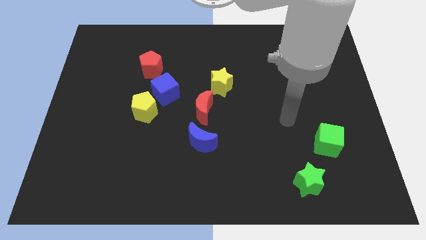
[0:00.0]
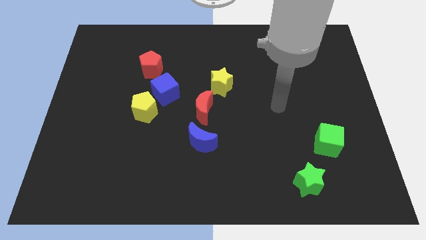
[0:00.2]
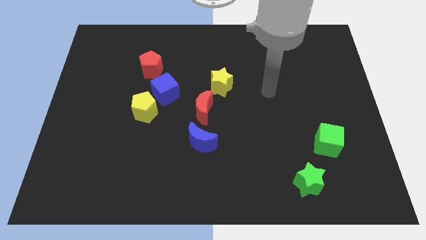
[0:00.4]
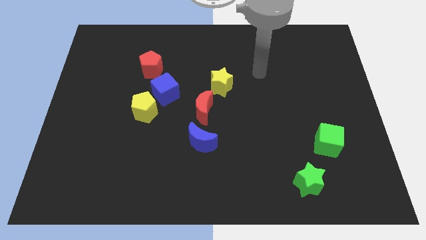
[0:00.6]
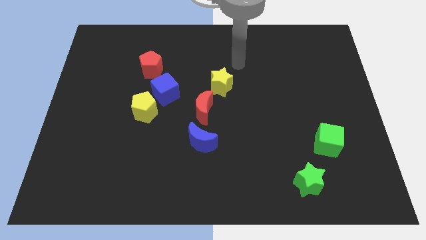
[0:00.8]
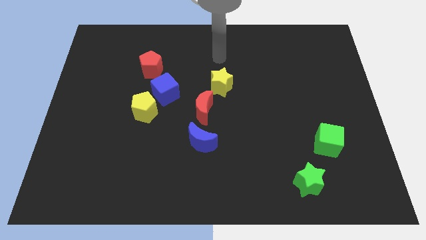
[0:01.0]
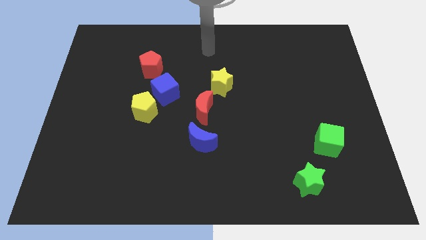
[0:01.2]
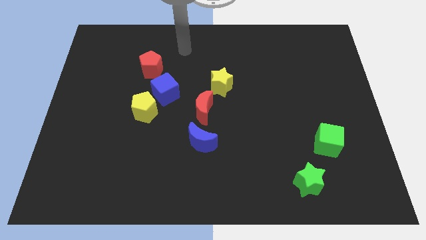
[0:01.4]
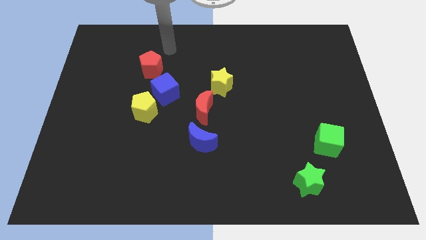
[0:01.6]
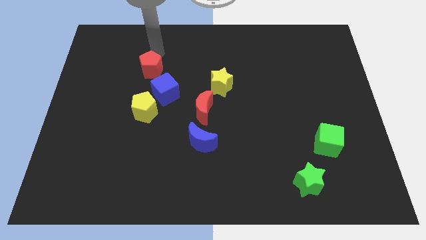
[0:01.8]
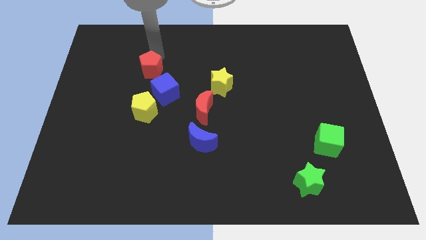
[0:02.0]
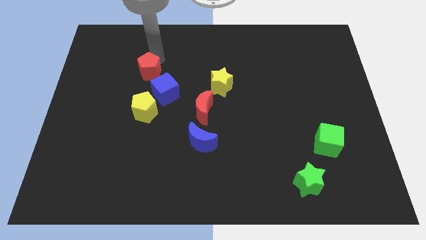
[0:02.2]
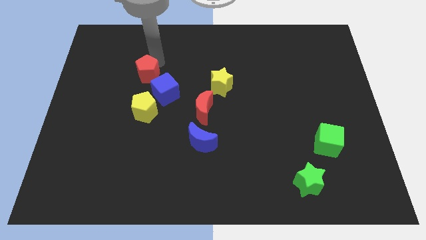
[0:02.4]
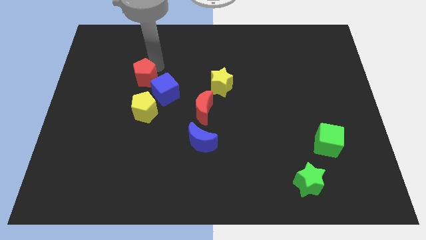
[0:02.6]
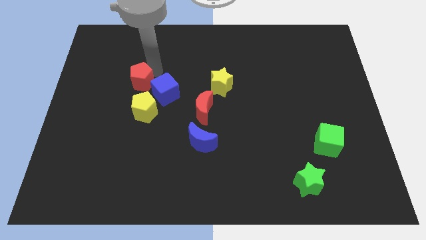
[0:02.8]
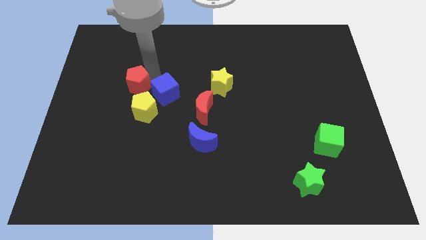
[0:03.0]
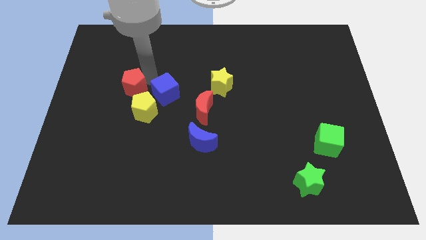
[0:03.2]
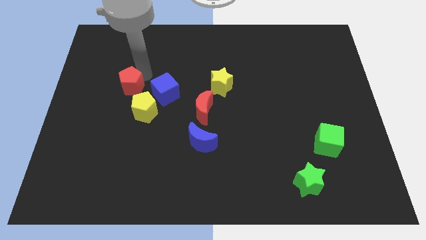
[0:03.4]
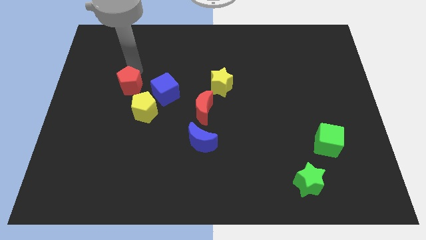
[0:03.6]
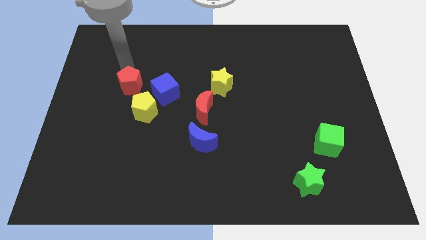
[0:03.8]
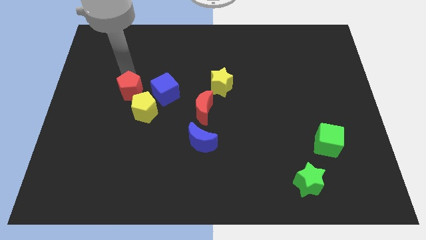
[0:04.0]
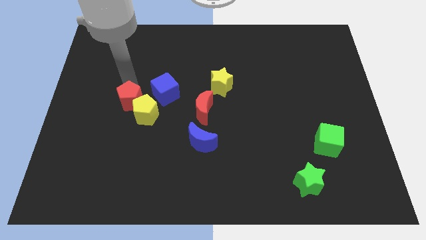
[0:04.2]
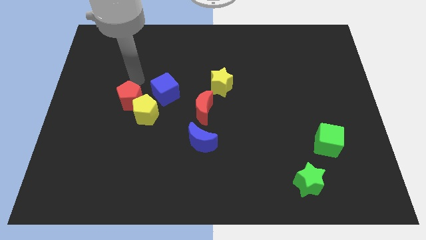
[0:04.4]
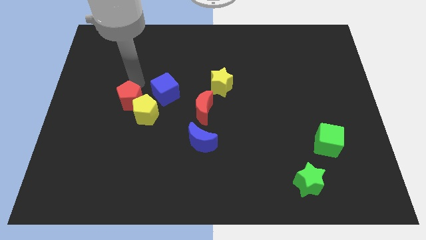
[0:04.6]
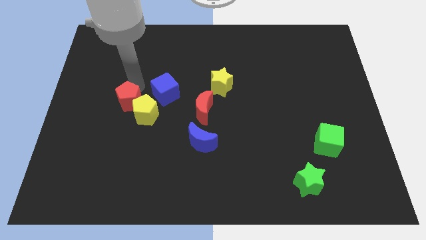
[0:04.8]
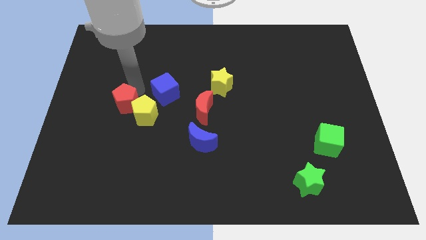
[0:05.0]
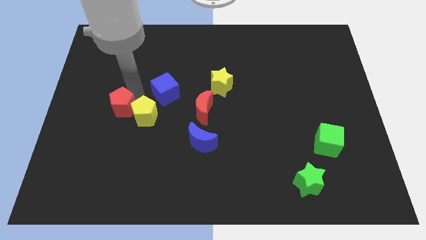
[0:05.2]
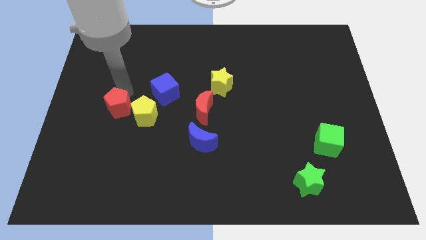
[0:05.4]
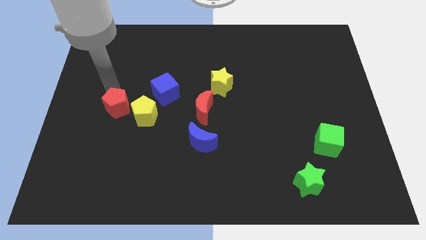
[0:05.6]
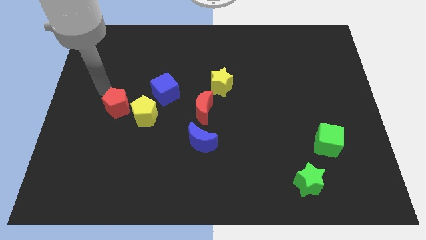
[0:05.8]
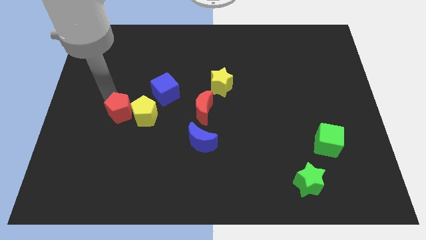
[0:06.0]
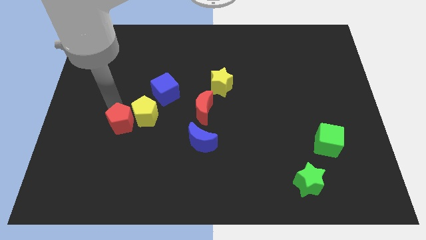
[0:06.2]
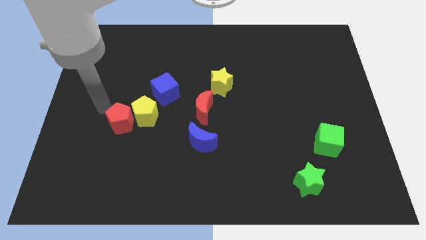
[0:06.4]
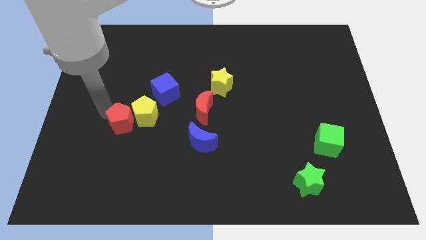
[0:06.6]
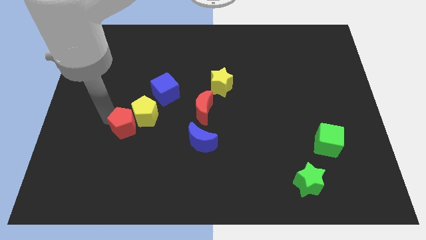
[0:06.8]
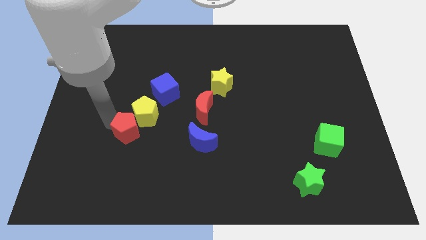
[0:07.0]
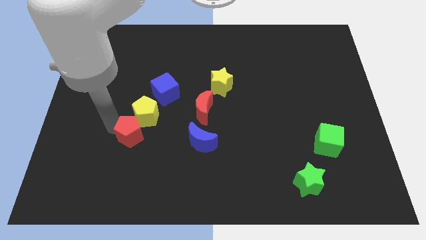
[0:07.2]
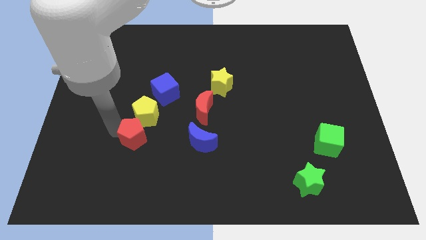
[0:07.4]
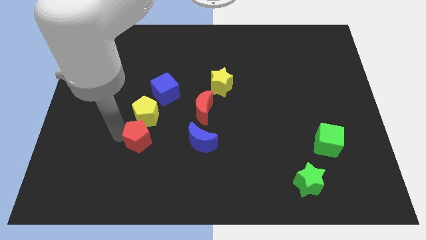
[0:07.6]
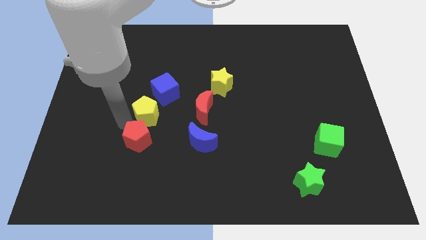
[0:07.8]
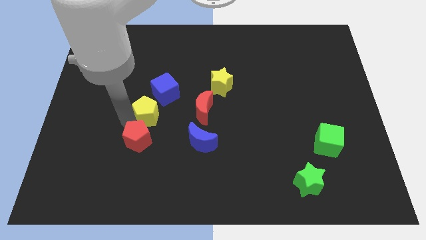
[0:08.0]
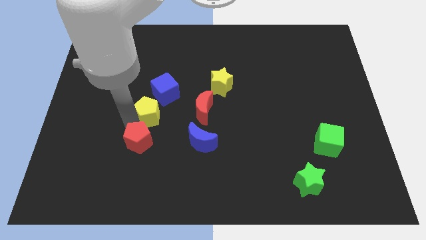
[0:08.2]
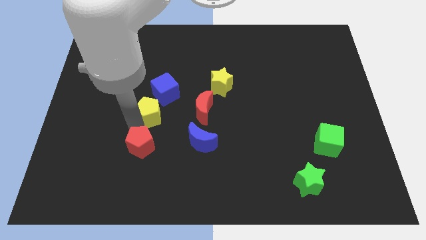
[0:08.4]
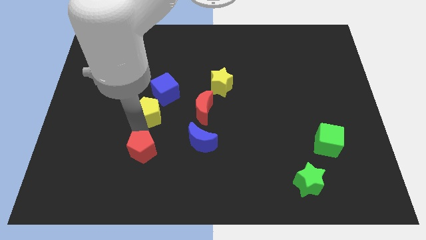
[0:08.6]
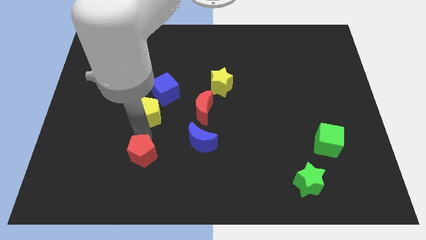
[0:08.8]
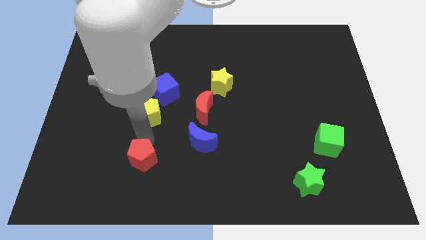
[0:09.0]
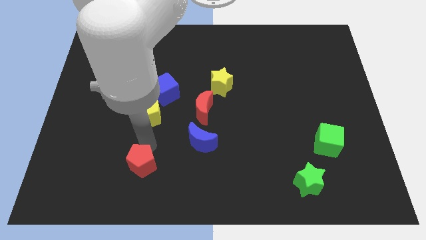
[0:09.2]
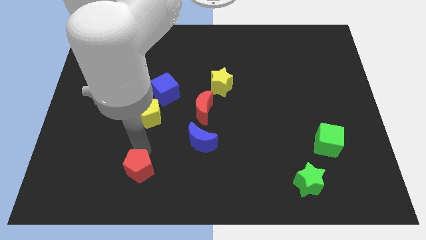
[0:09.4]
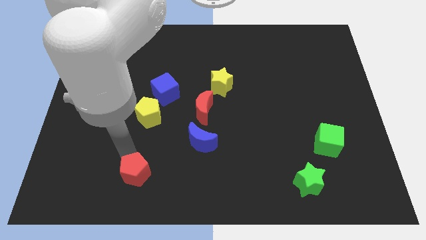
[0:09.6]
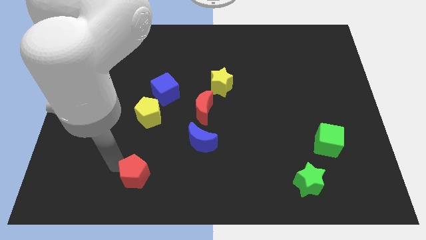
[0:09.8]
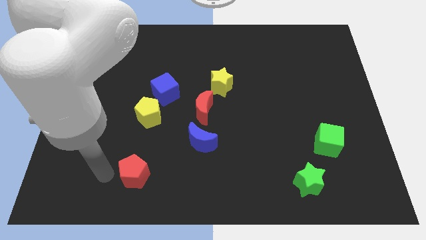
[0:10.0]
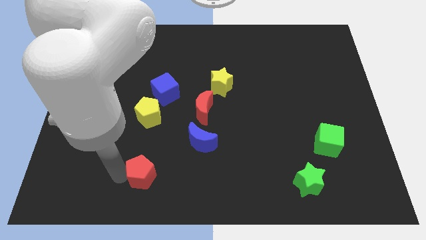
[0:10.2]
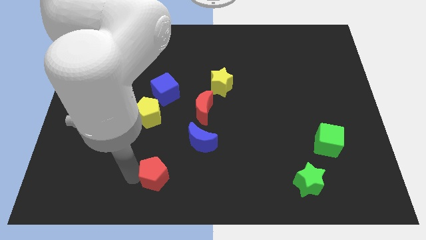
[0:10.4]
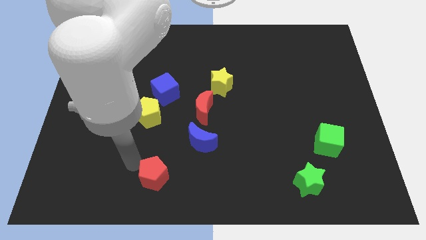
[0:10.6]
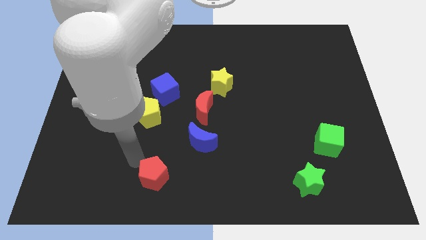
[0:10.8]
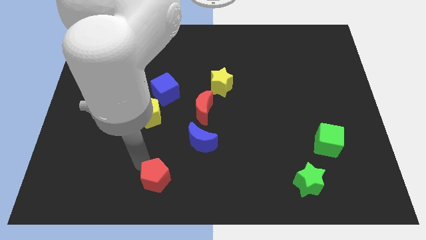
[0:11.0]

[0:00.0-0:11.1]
slide the red pentagon to the bottom

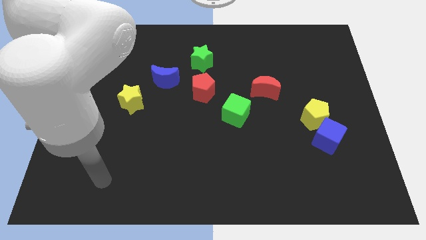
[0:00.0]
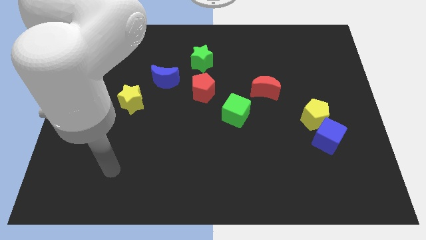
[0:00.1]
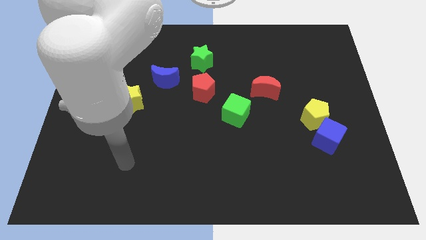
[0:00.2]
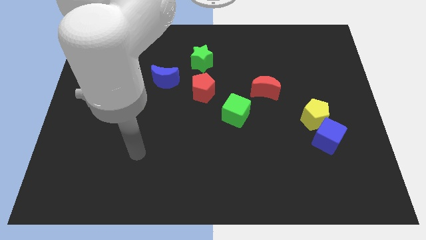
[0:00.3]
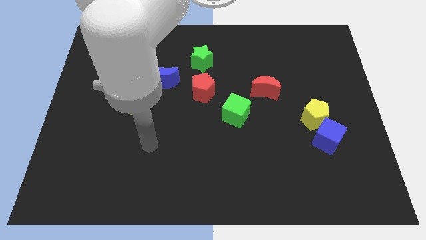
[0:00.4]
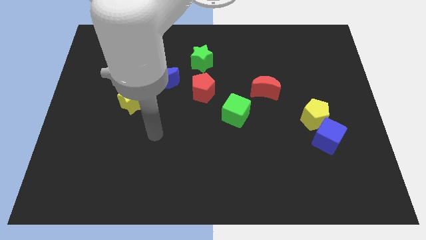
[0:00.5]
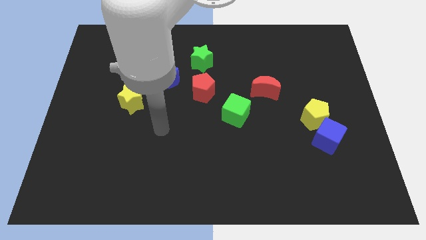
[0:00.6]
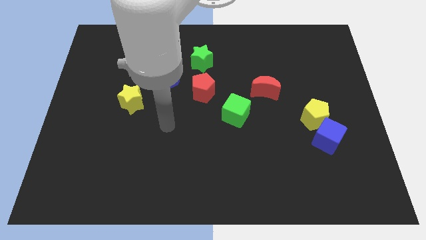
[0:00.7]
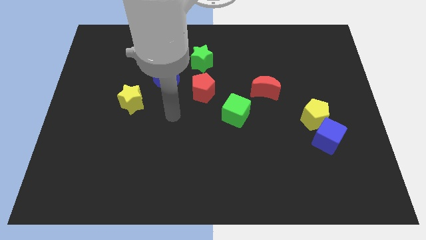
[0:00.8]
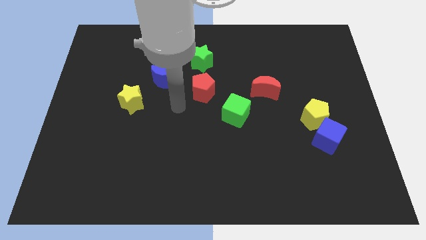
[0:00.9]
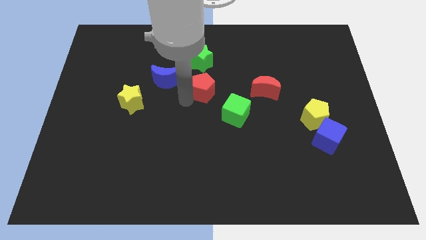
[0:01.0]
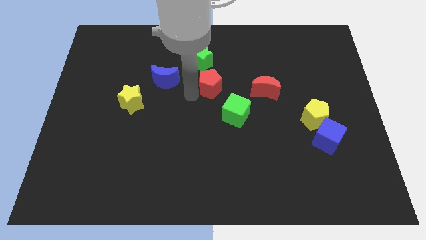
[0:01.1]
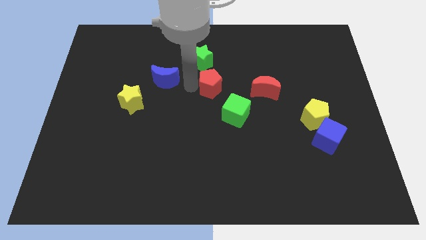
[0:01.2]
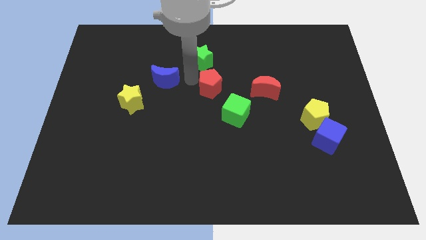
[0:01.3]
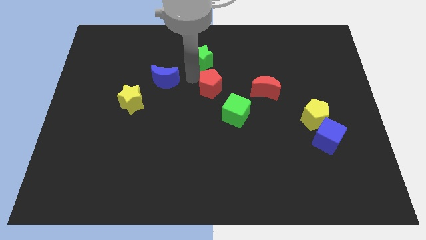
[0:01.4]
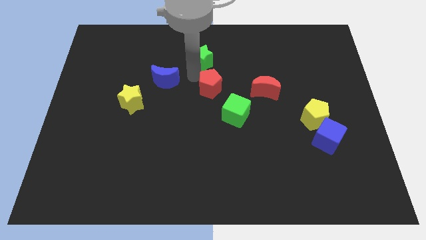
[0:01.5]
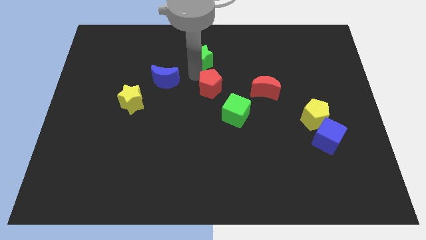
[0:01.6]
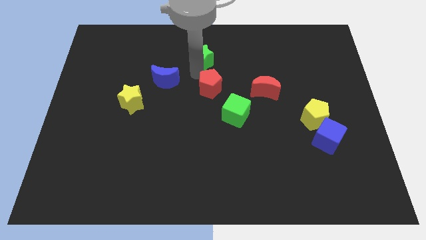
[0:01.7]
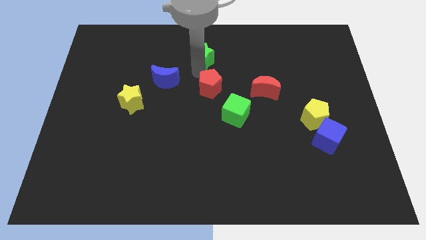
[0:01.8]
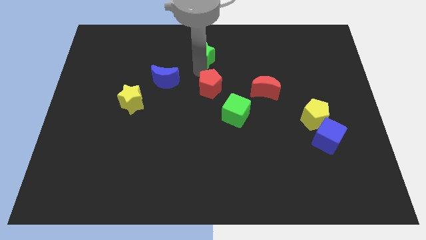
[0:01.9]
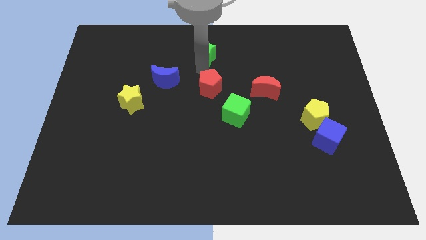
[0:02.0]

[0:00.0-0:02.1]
push the green star to the top side
